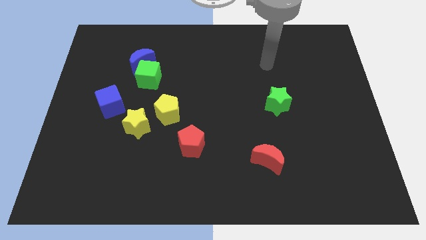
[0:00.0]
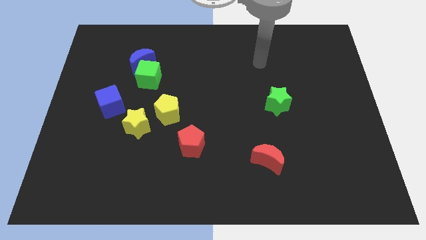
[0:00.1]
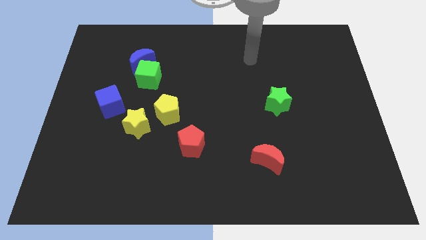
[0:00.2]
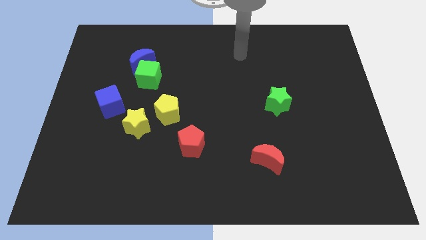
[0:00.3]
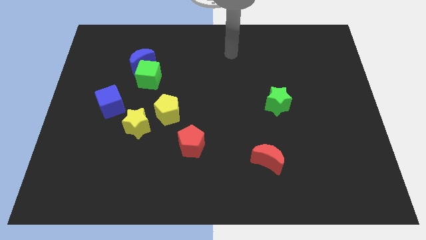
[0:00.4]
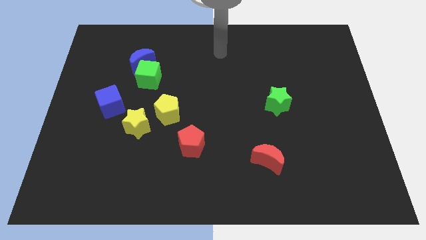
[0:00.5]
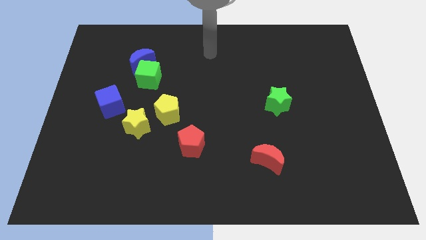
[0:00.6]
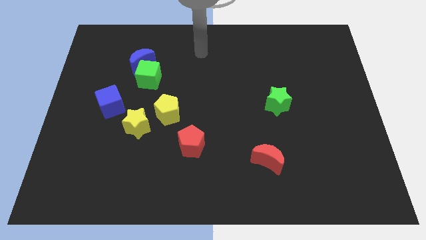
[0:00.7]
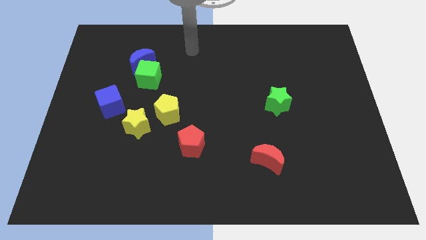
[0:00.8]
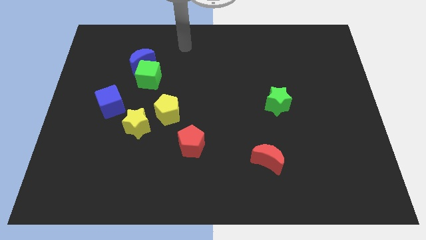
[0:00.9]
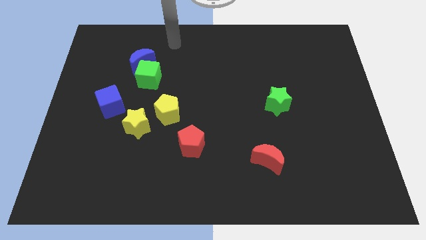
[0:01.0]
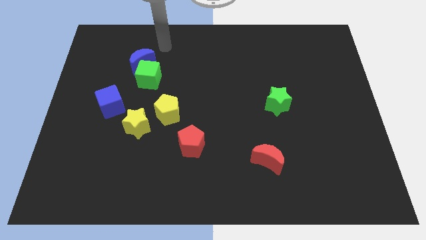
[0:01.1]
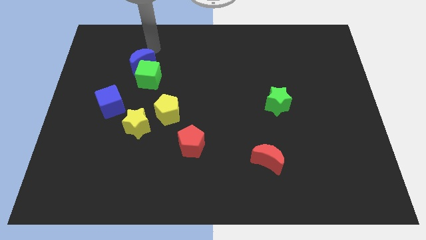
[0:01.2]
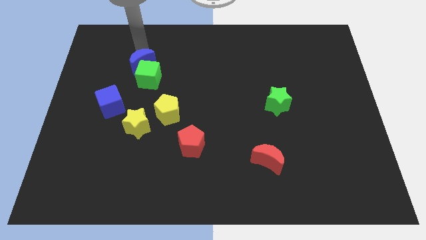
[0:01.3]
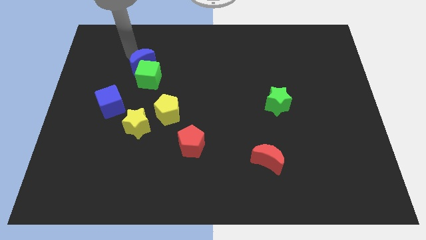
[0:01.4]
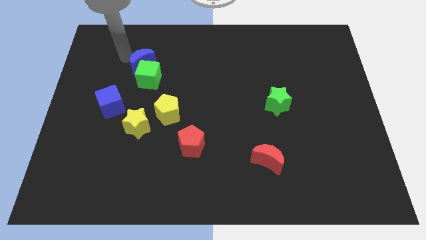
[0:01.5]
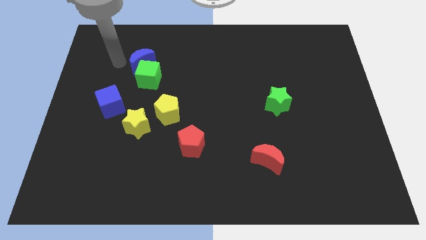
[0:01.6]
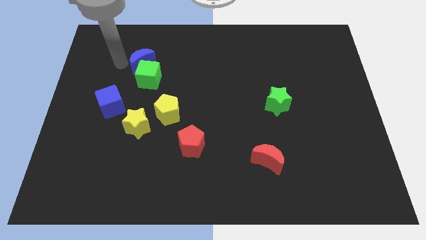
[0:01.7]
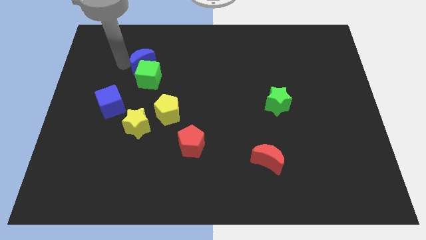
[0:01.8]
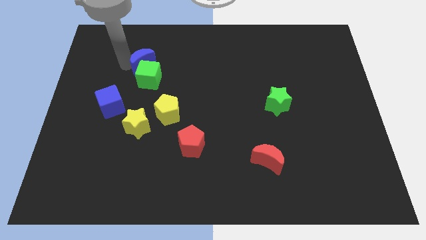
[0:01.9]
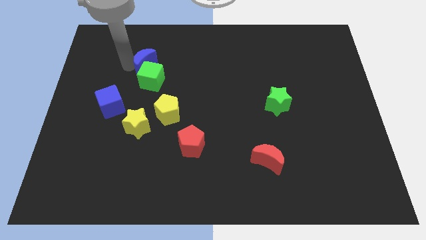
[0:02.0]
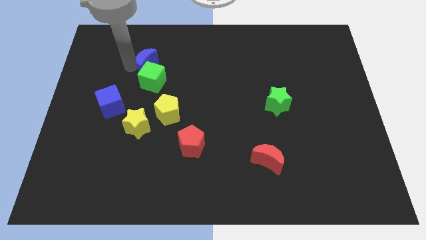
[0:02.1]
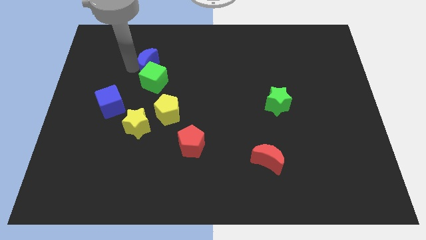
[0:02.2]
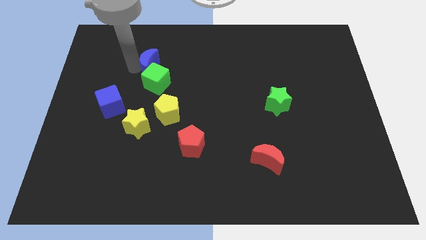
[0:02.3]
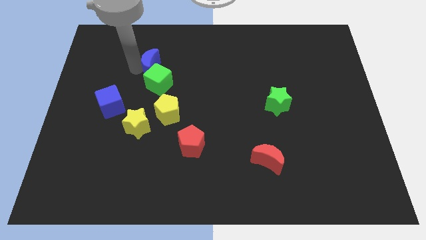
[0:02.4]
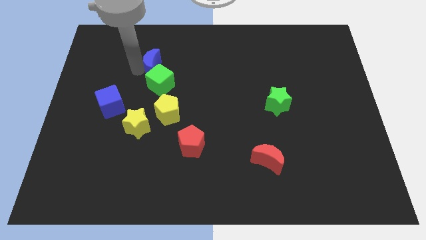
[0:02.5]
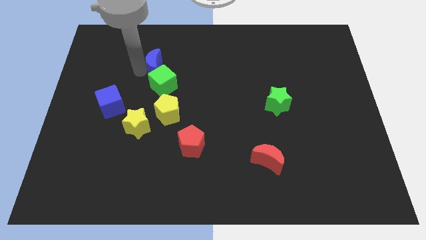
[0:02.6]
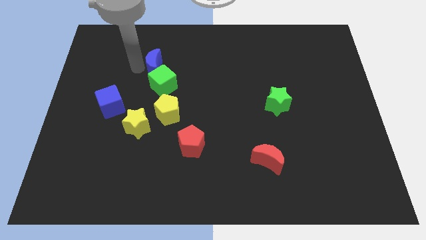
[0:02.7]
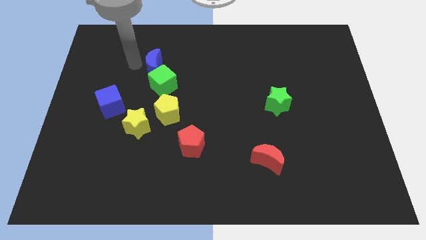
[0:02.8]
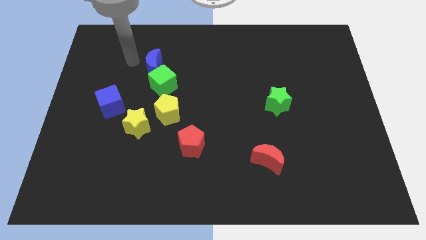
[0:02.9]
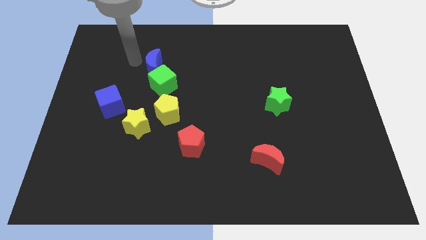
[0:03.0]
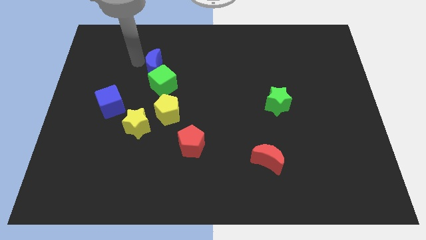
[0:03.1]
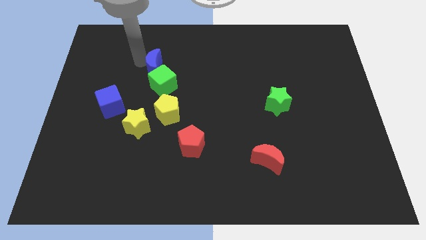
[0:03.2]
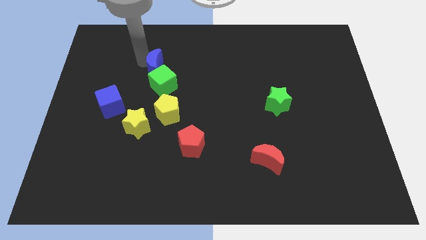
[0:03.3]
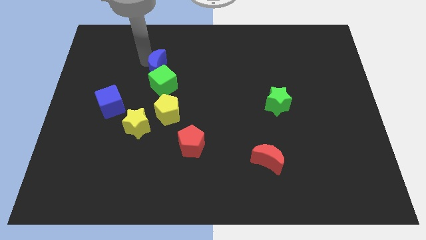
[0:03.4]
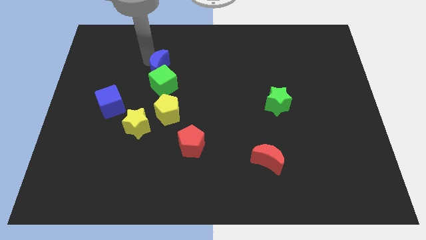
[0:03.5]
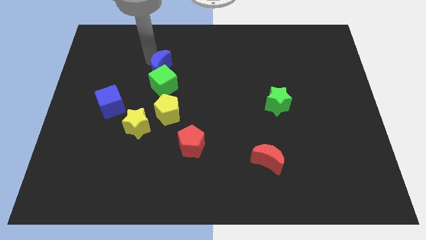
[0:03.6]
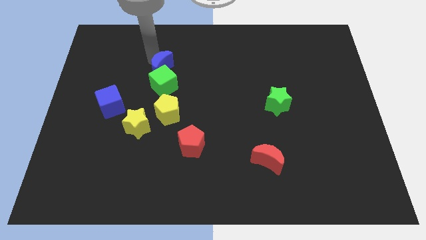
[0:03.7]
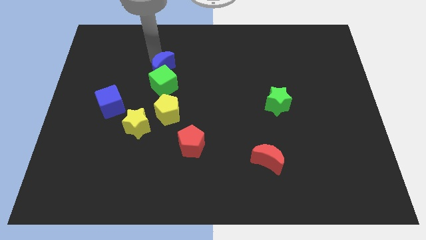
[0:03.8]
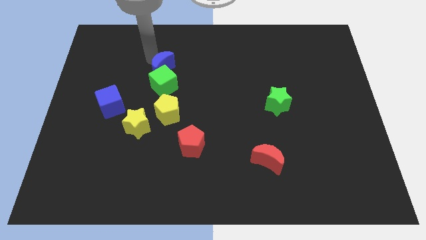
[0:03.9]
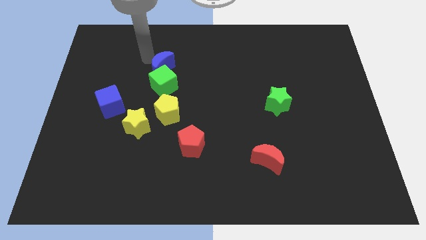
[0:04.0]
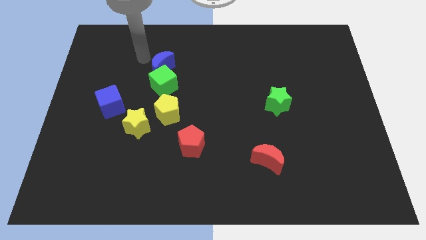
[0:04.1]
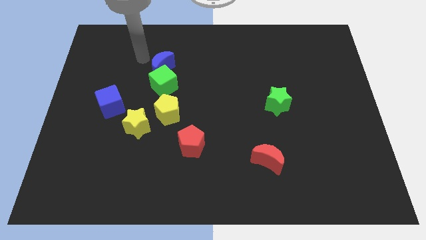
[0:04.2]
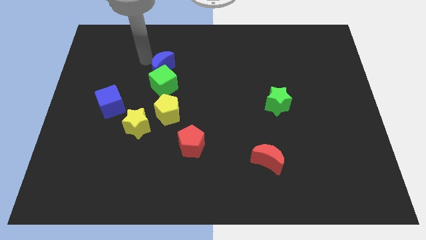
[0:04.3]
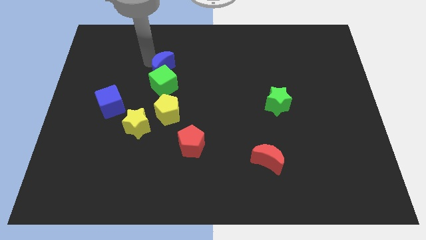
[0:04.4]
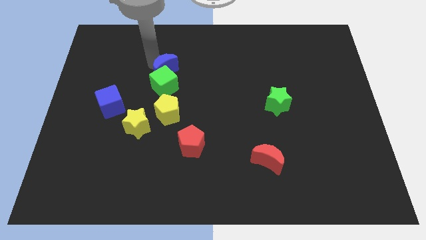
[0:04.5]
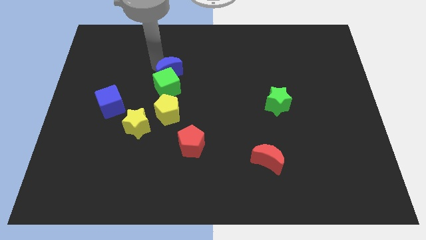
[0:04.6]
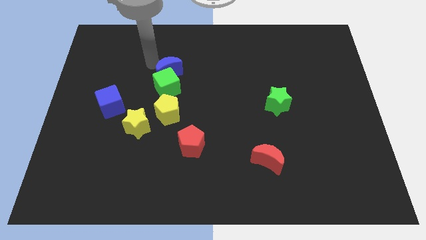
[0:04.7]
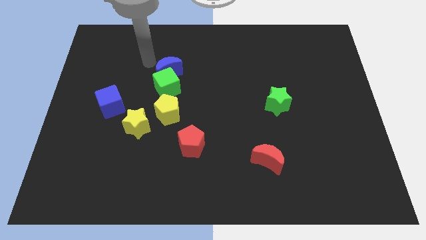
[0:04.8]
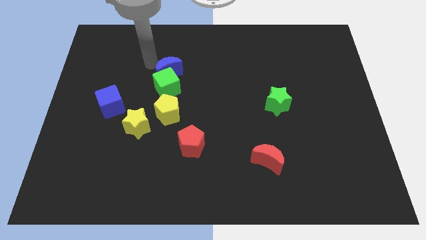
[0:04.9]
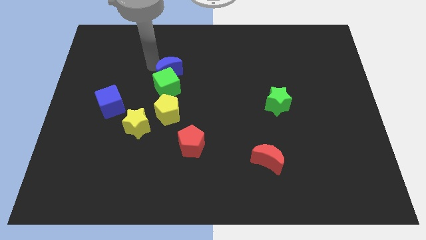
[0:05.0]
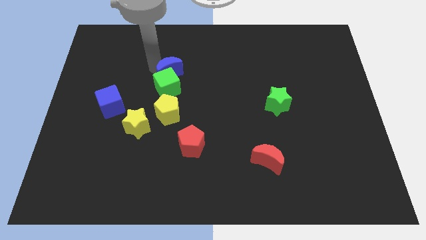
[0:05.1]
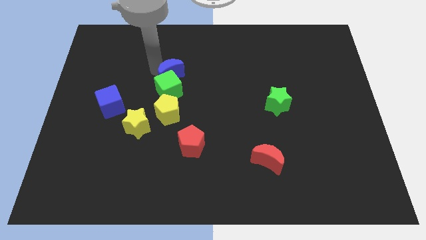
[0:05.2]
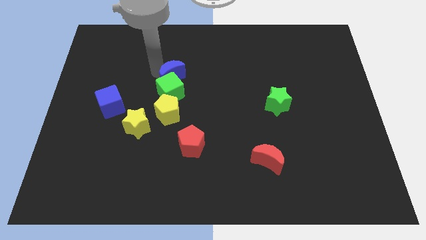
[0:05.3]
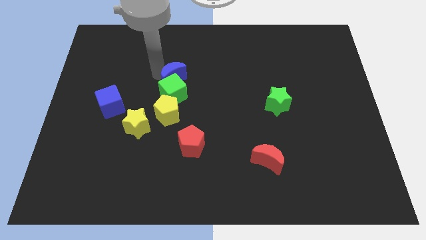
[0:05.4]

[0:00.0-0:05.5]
push the blue moon to the center of the board

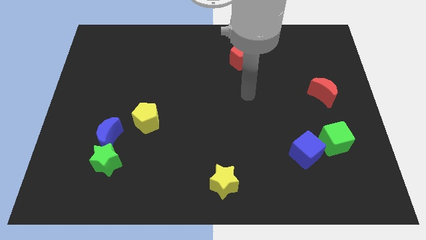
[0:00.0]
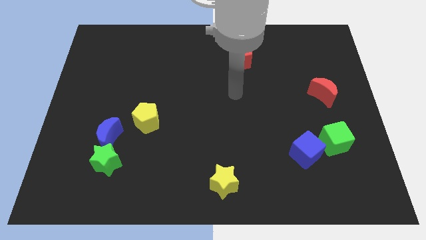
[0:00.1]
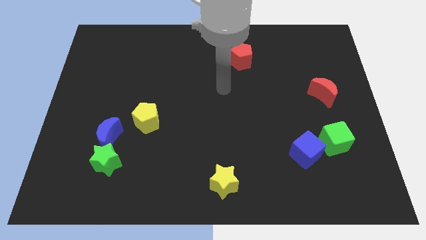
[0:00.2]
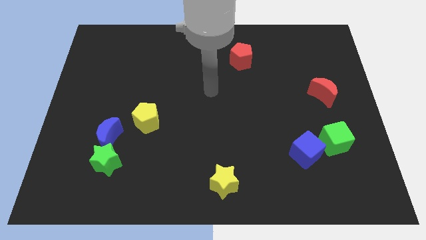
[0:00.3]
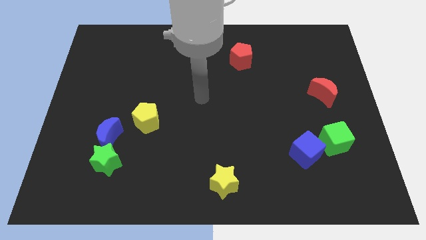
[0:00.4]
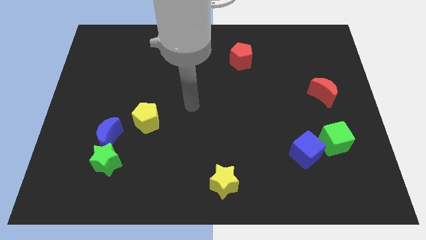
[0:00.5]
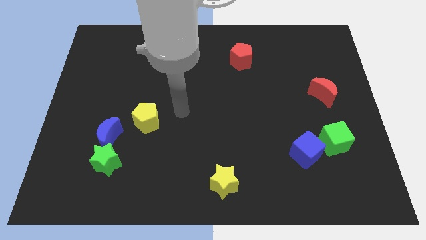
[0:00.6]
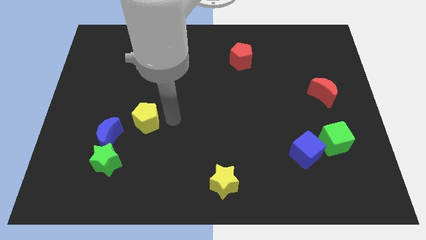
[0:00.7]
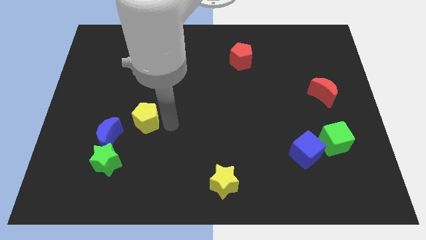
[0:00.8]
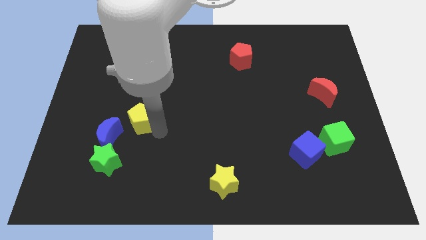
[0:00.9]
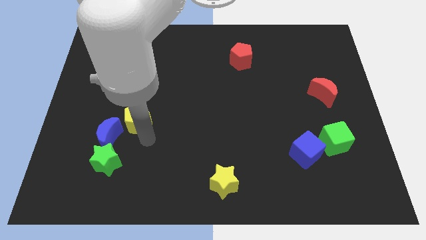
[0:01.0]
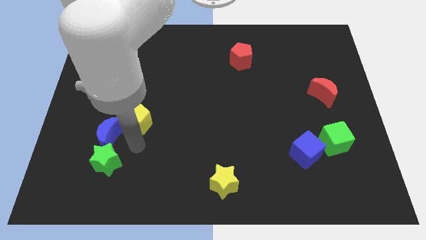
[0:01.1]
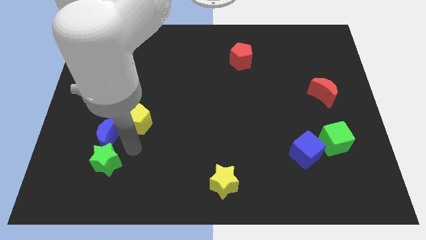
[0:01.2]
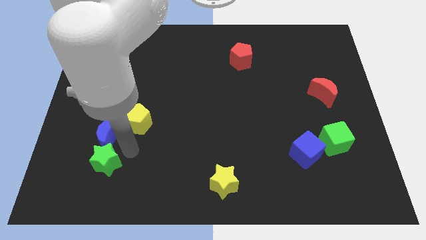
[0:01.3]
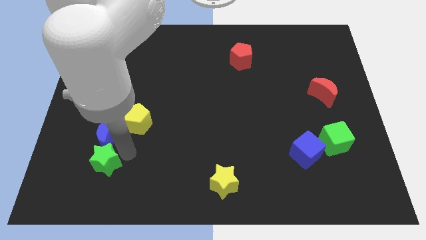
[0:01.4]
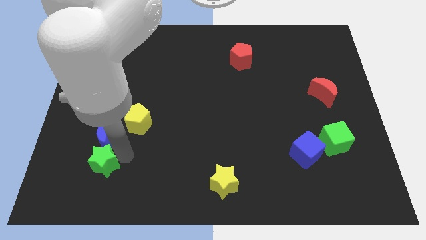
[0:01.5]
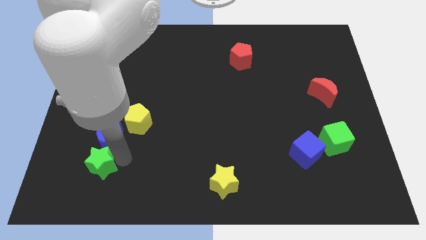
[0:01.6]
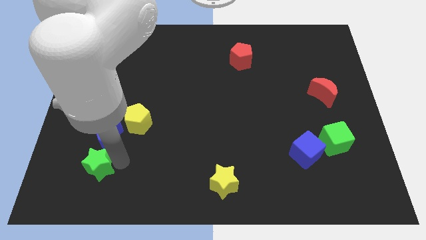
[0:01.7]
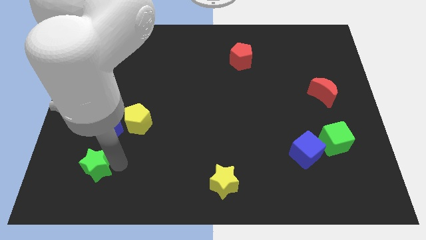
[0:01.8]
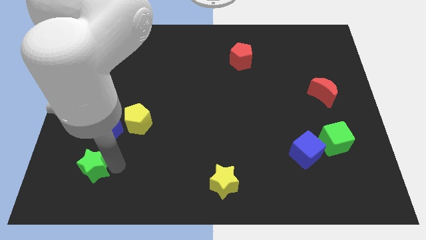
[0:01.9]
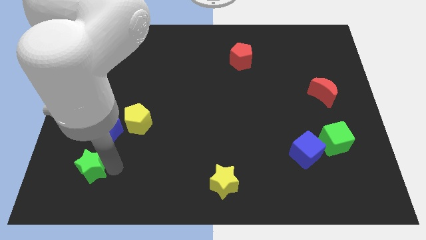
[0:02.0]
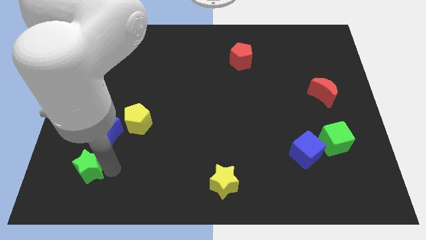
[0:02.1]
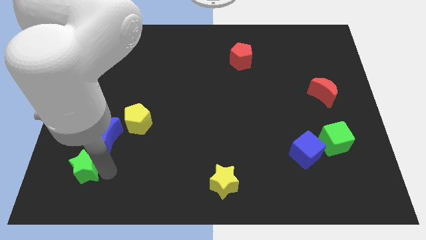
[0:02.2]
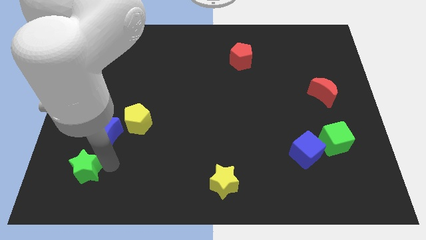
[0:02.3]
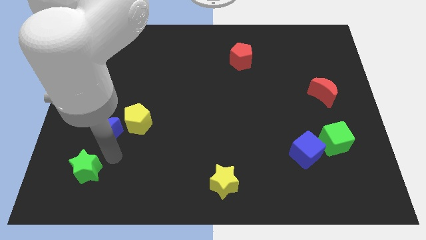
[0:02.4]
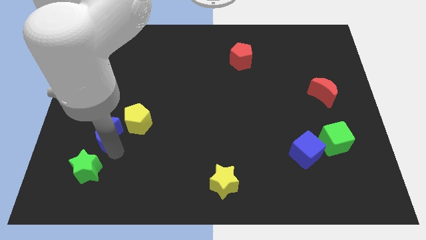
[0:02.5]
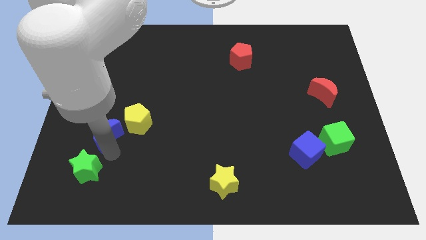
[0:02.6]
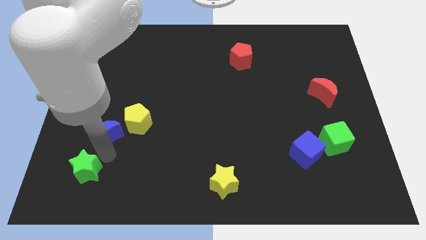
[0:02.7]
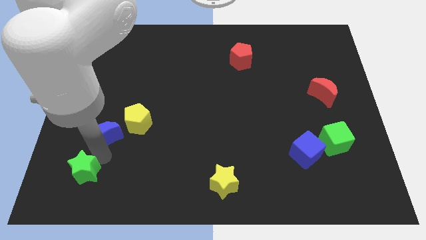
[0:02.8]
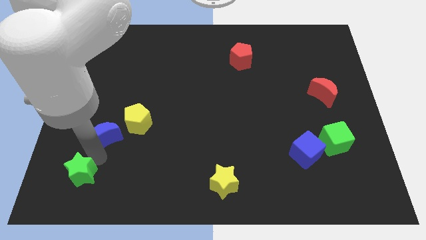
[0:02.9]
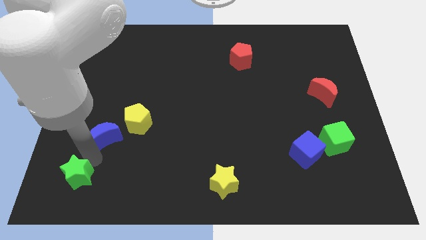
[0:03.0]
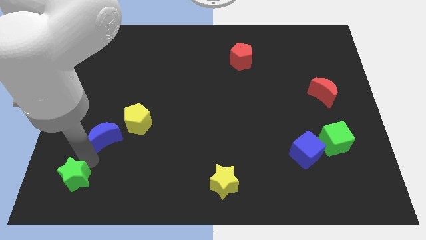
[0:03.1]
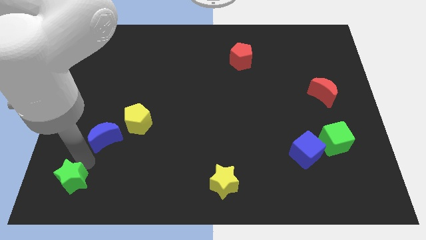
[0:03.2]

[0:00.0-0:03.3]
slide the green star to the lower left corner
